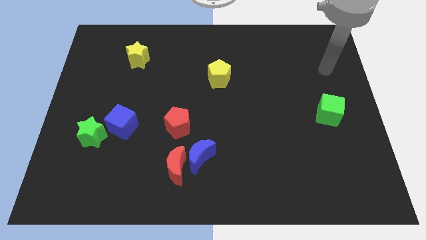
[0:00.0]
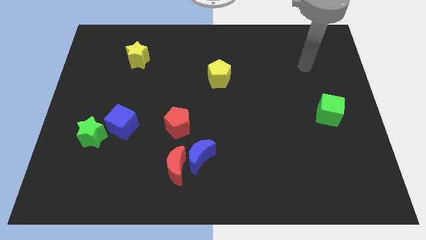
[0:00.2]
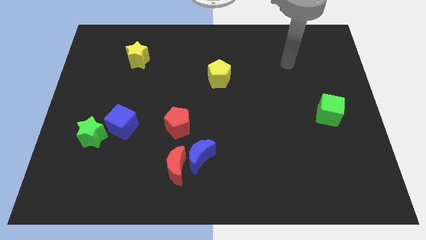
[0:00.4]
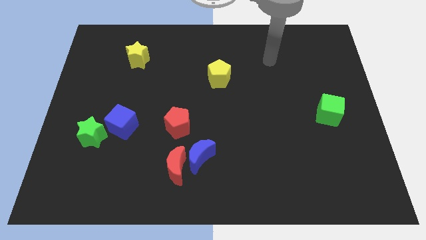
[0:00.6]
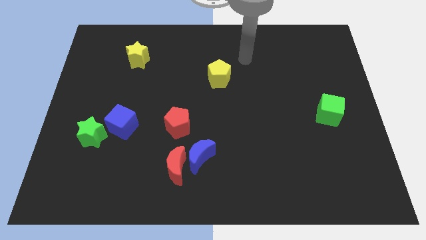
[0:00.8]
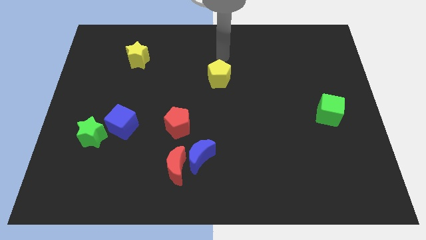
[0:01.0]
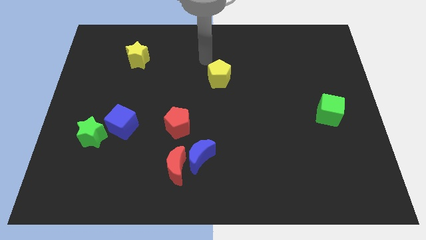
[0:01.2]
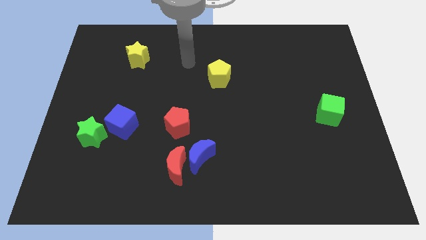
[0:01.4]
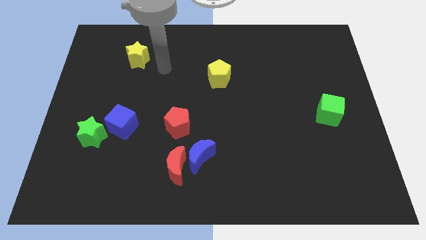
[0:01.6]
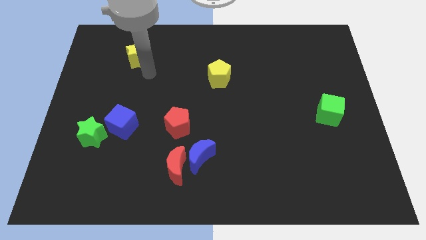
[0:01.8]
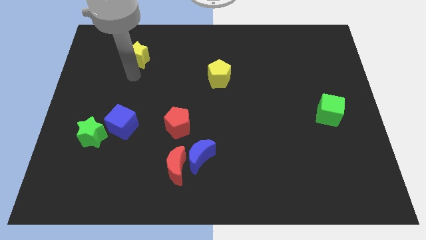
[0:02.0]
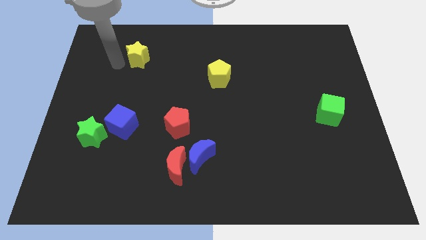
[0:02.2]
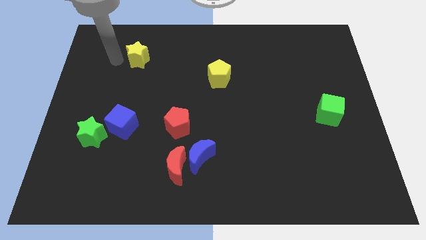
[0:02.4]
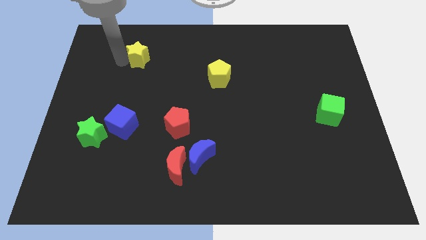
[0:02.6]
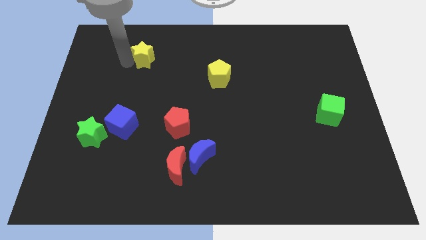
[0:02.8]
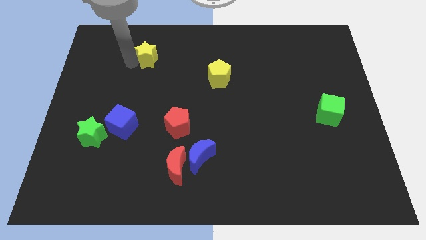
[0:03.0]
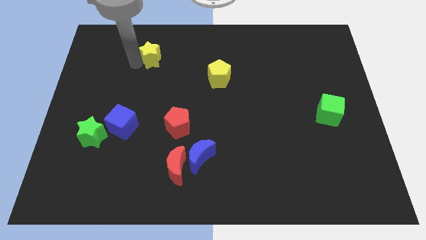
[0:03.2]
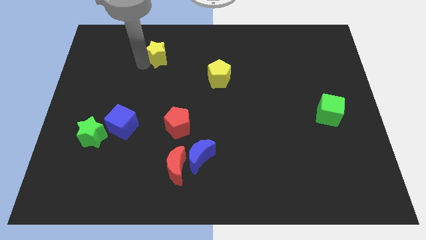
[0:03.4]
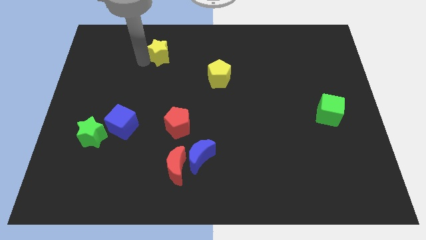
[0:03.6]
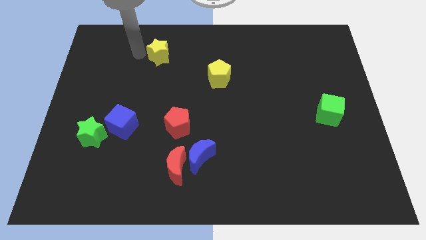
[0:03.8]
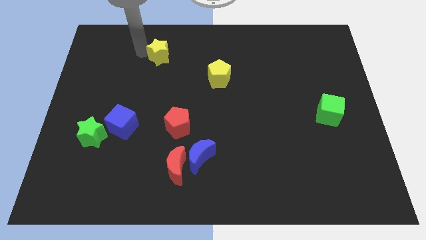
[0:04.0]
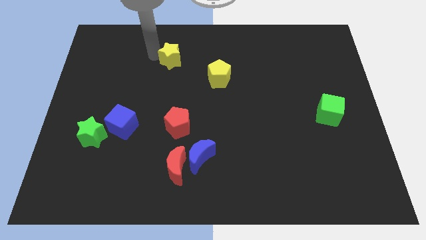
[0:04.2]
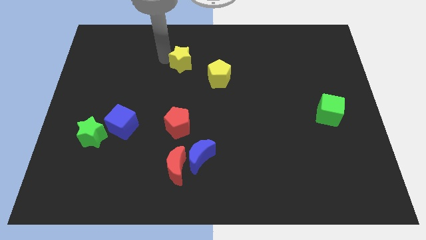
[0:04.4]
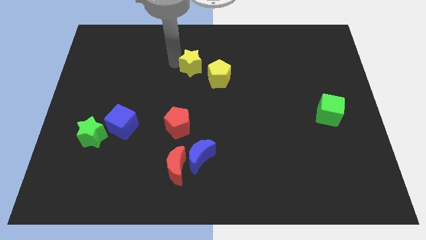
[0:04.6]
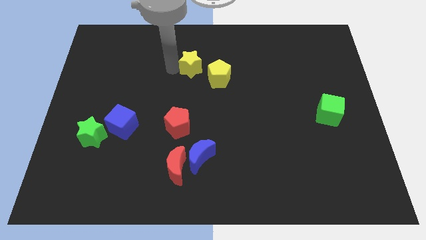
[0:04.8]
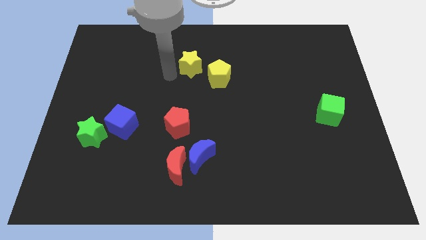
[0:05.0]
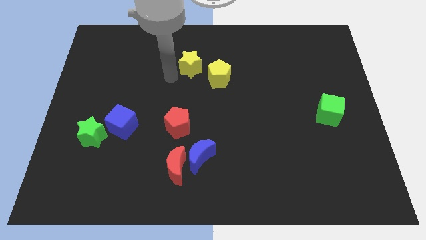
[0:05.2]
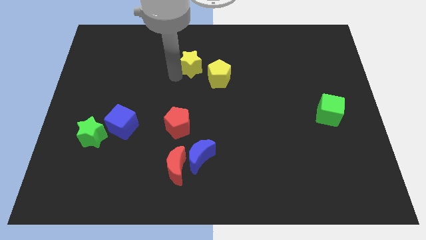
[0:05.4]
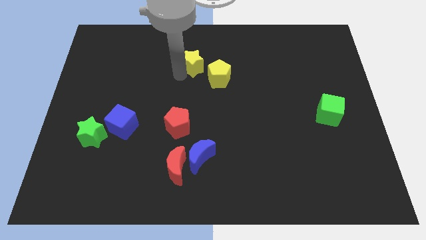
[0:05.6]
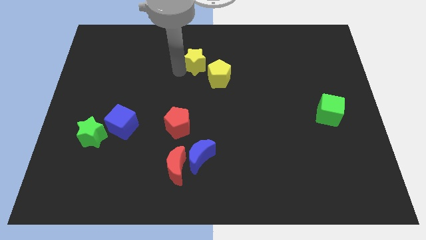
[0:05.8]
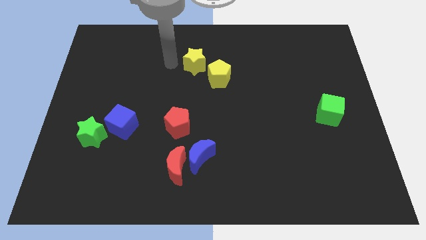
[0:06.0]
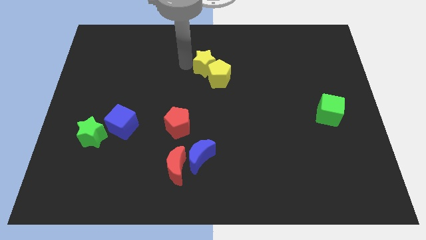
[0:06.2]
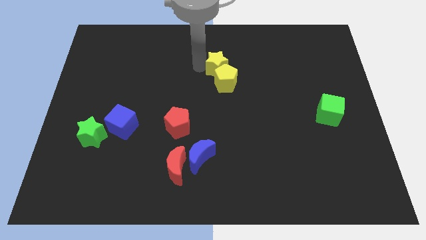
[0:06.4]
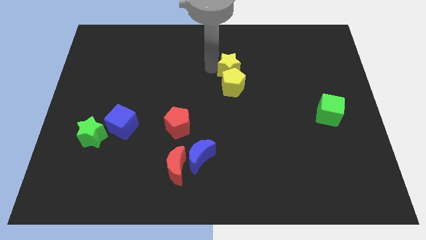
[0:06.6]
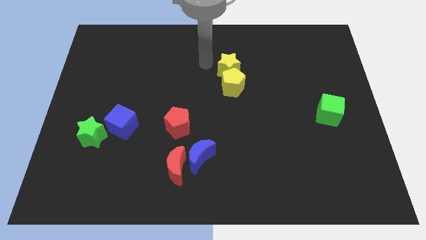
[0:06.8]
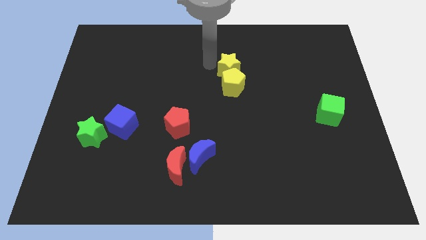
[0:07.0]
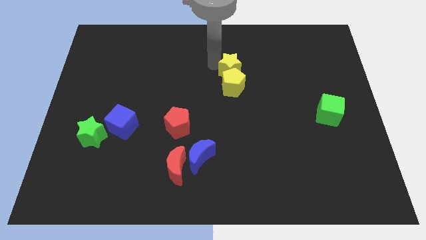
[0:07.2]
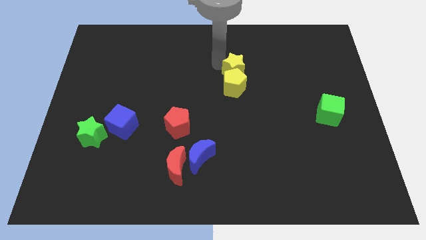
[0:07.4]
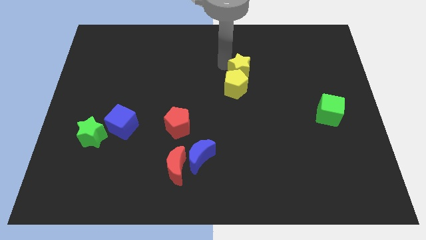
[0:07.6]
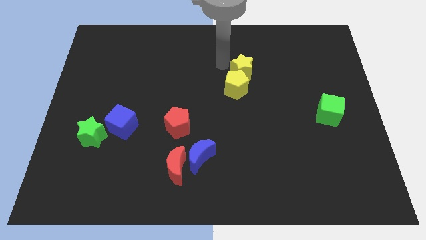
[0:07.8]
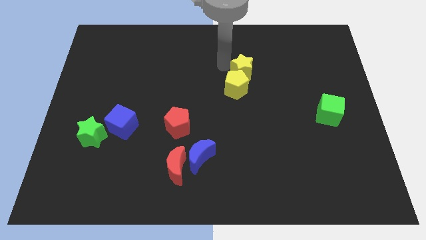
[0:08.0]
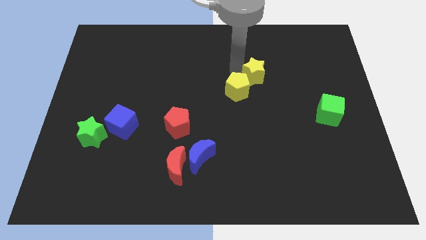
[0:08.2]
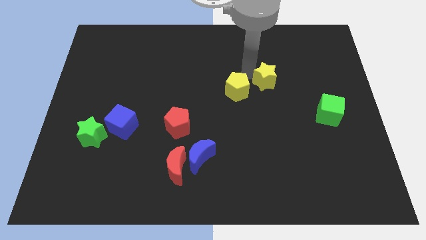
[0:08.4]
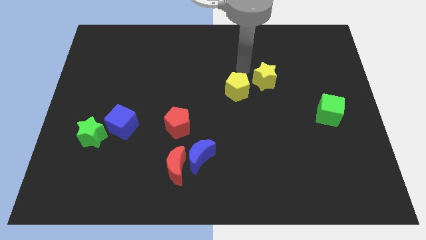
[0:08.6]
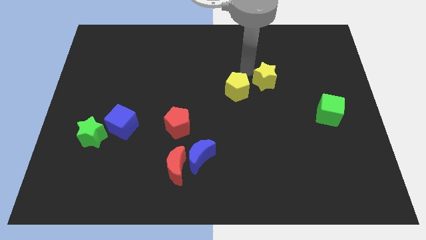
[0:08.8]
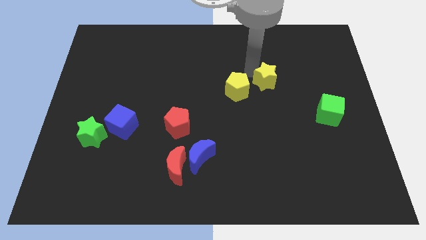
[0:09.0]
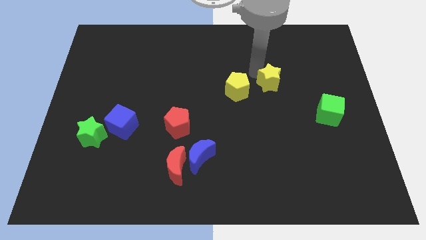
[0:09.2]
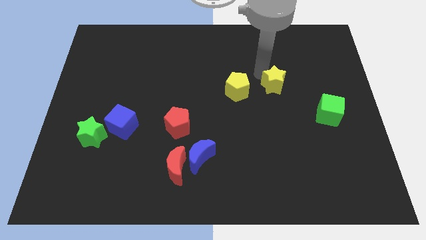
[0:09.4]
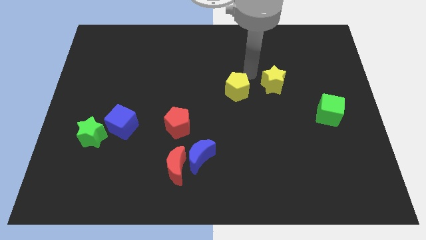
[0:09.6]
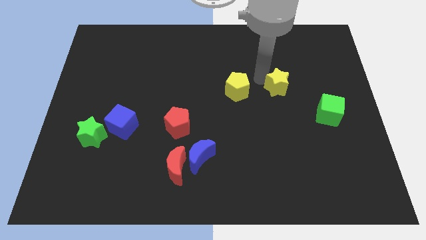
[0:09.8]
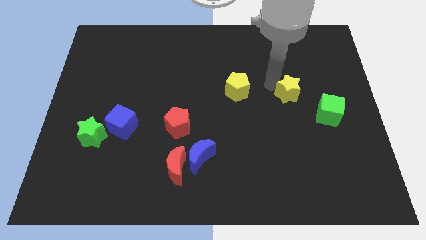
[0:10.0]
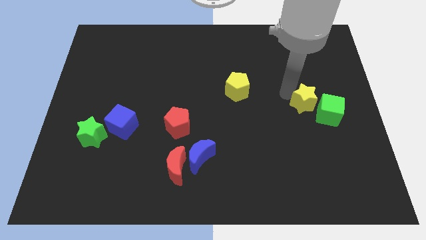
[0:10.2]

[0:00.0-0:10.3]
move the yellow star to the green cube

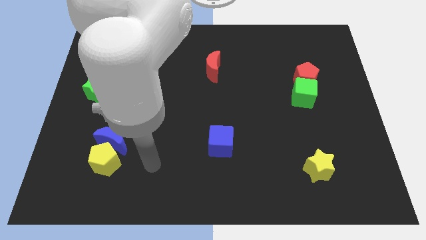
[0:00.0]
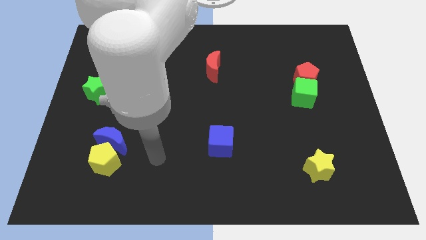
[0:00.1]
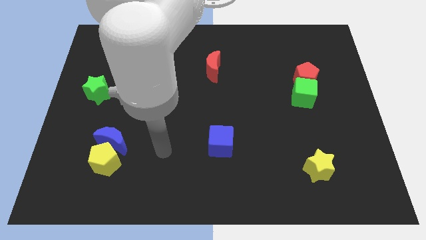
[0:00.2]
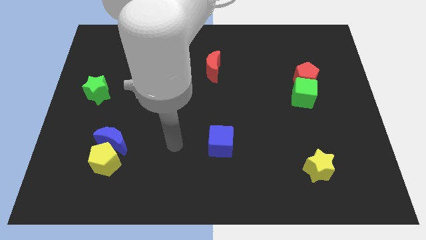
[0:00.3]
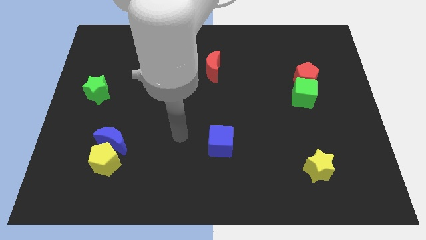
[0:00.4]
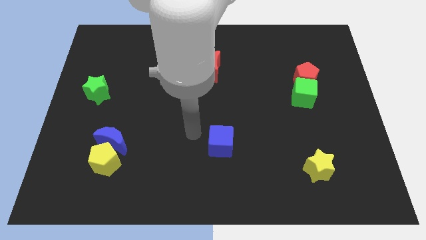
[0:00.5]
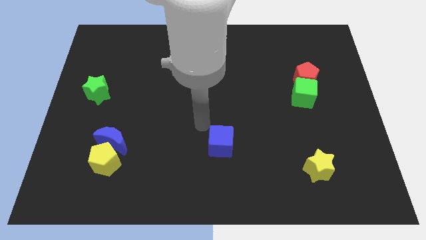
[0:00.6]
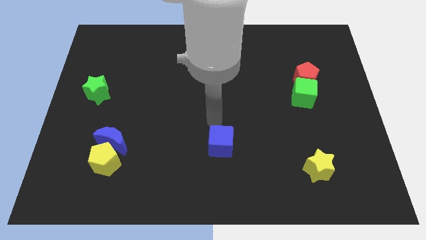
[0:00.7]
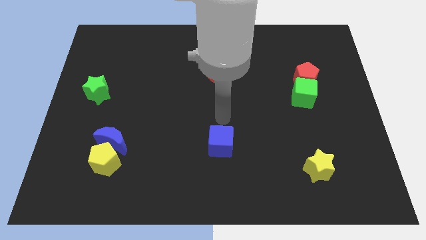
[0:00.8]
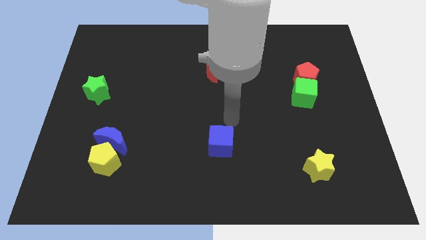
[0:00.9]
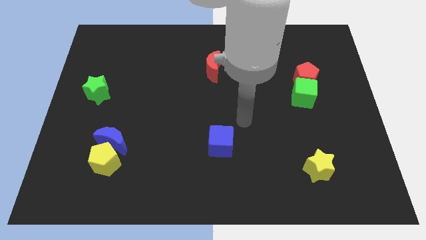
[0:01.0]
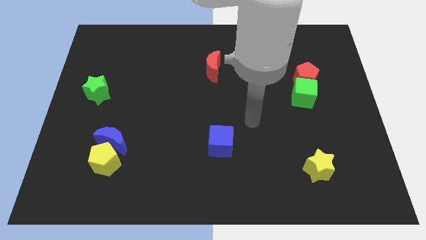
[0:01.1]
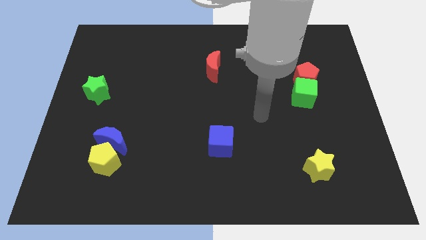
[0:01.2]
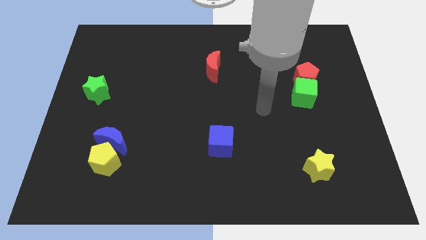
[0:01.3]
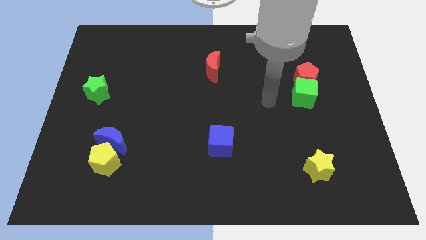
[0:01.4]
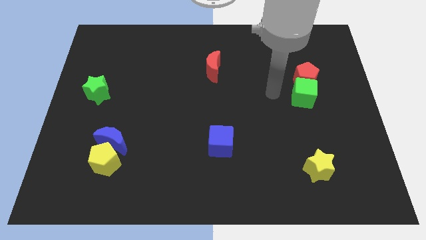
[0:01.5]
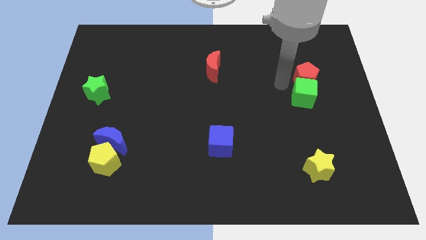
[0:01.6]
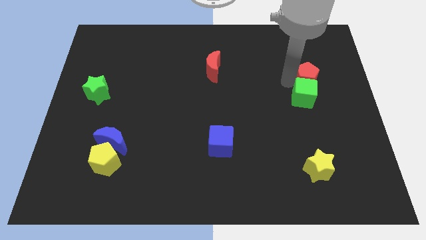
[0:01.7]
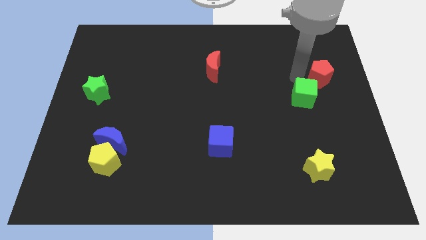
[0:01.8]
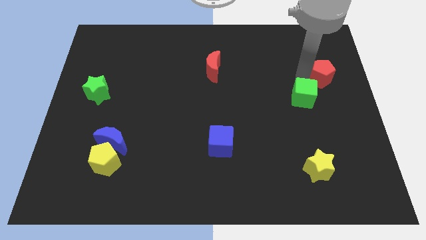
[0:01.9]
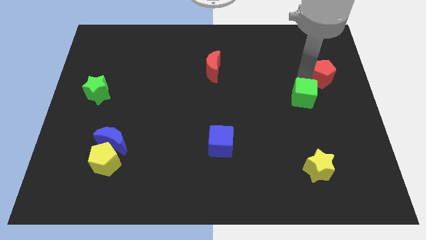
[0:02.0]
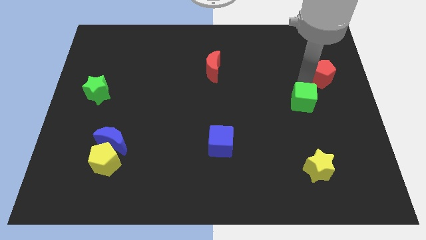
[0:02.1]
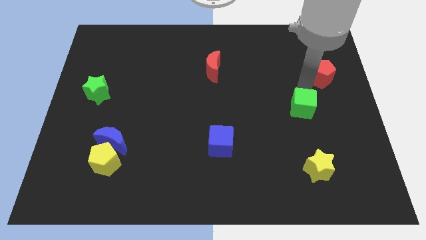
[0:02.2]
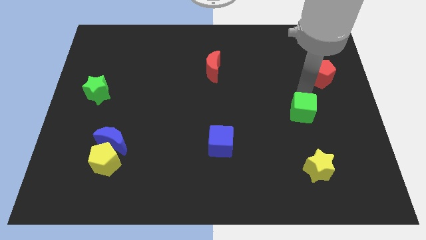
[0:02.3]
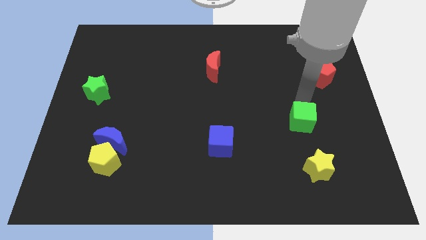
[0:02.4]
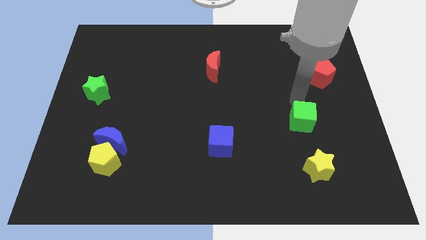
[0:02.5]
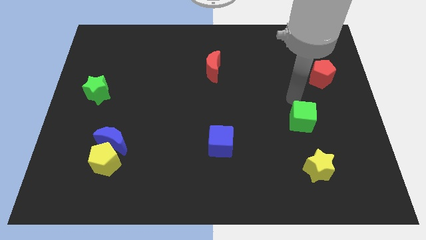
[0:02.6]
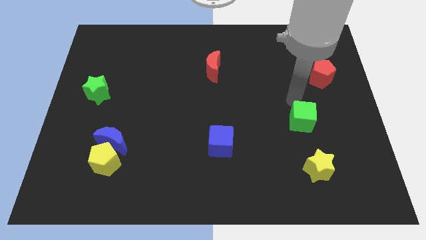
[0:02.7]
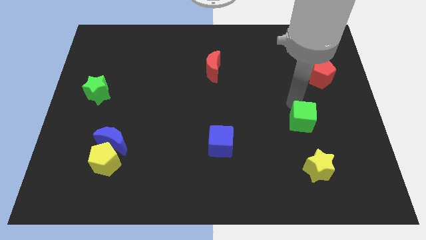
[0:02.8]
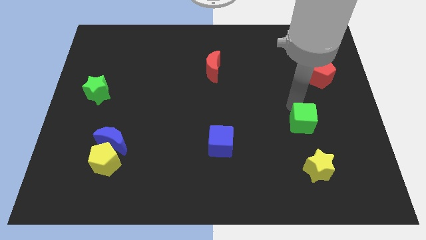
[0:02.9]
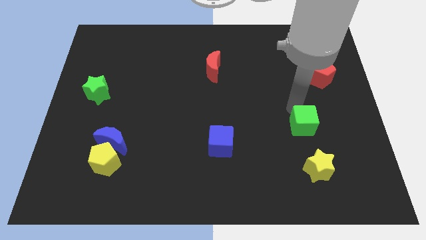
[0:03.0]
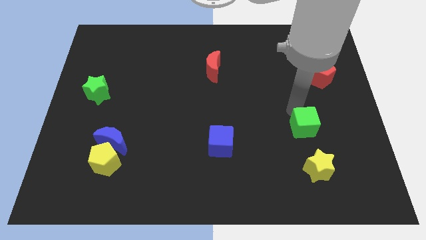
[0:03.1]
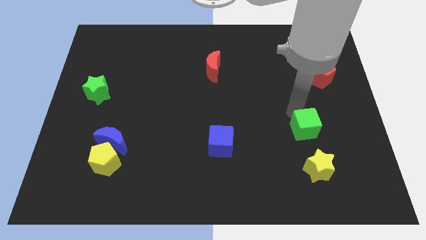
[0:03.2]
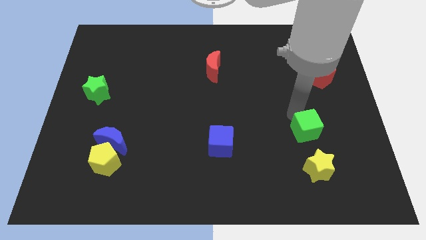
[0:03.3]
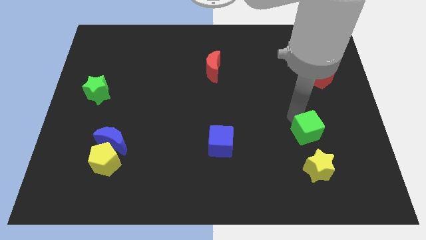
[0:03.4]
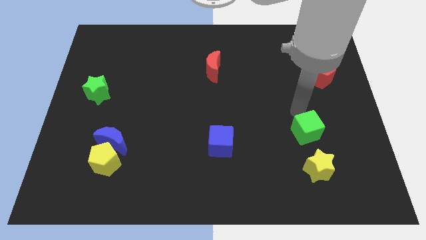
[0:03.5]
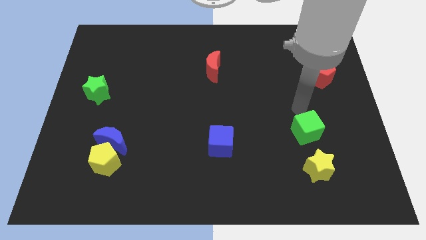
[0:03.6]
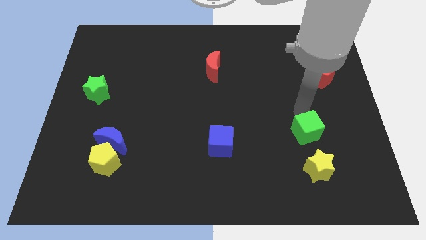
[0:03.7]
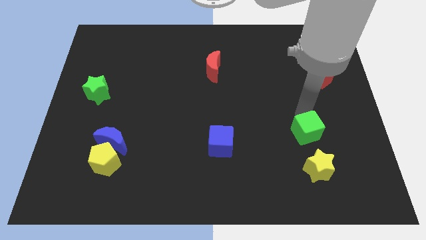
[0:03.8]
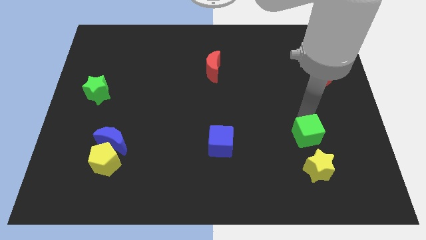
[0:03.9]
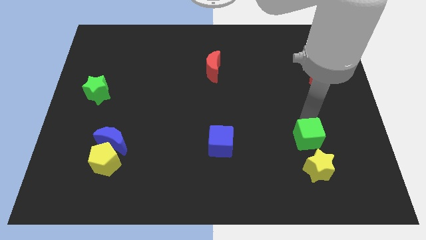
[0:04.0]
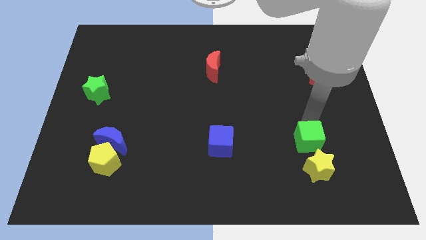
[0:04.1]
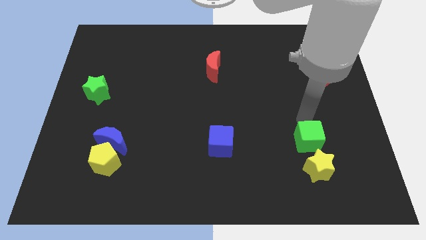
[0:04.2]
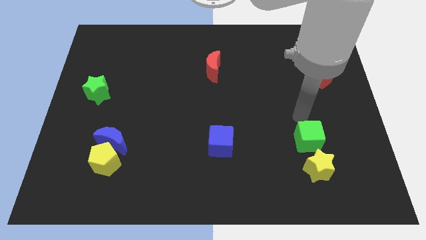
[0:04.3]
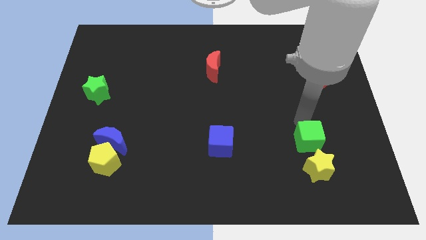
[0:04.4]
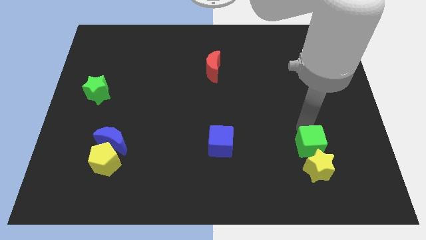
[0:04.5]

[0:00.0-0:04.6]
move the green cube to the yellow star
